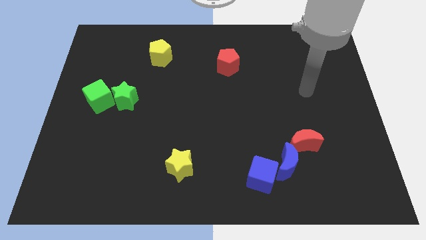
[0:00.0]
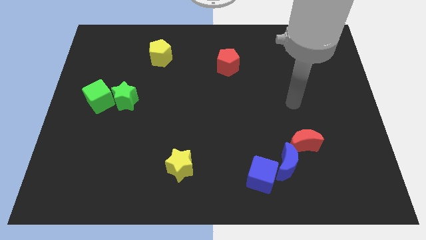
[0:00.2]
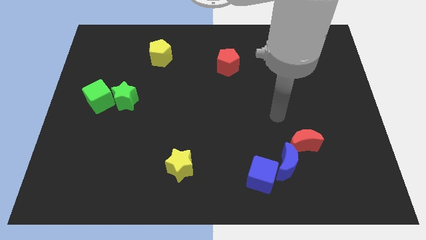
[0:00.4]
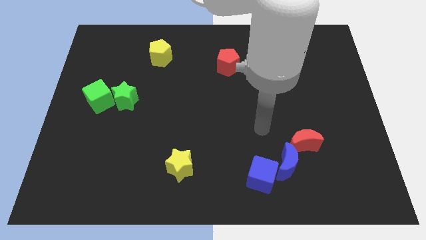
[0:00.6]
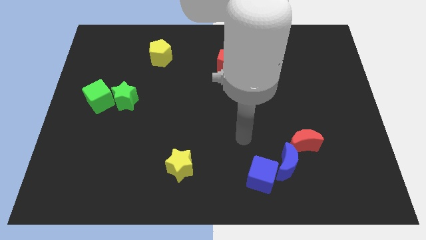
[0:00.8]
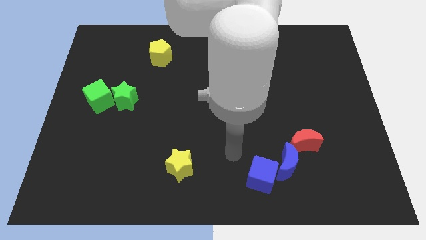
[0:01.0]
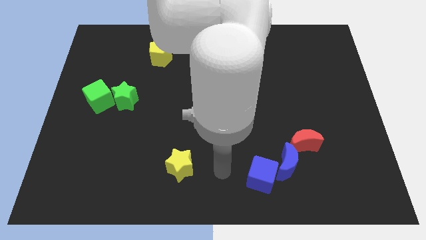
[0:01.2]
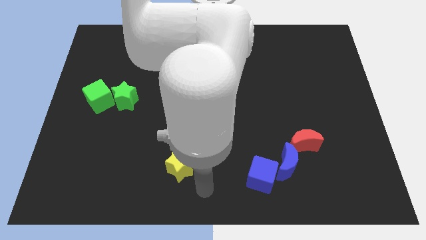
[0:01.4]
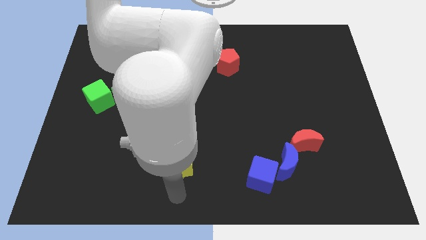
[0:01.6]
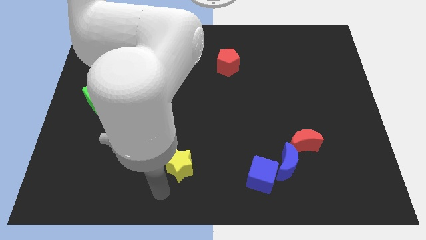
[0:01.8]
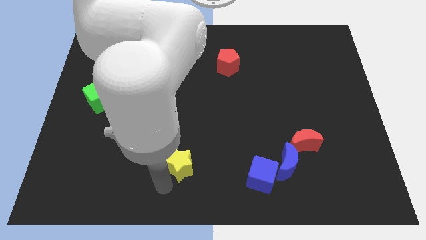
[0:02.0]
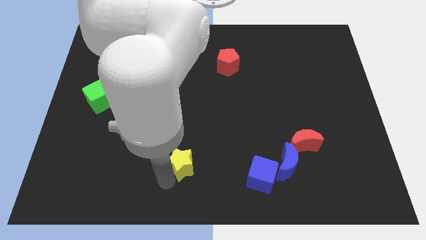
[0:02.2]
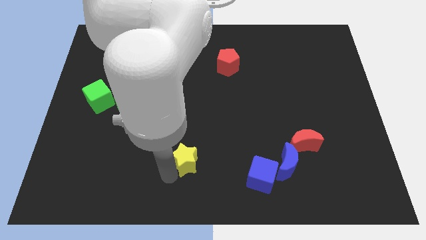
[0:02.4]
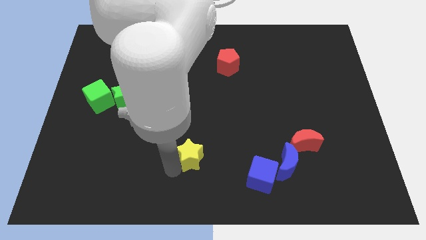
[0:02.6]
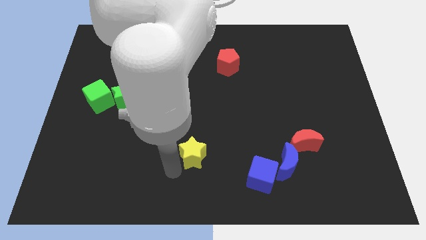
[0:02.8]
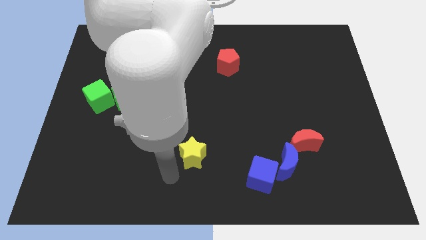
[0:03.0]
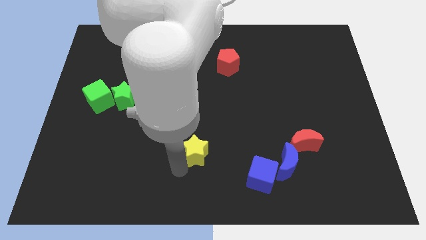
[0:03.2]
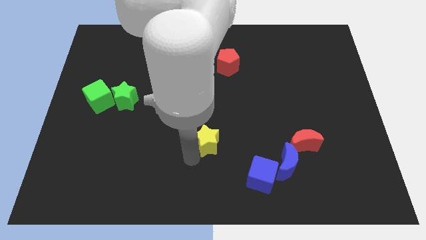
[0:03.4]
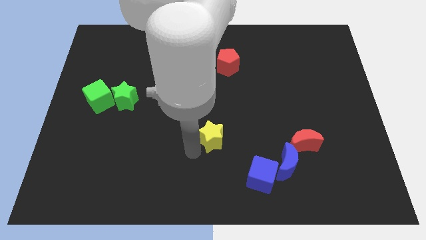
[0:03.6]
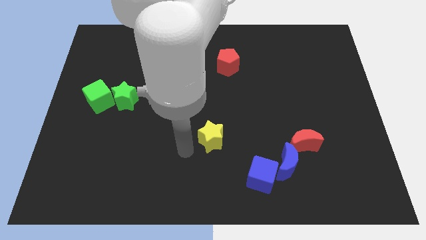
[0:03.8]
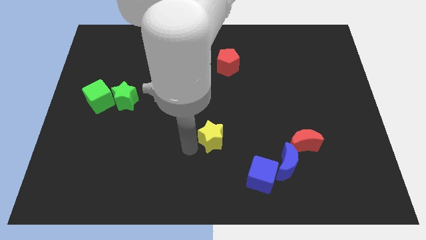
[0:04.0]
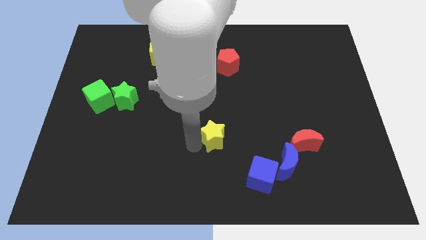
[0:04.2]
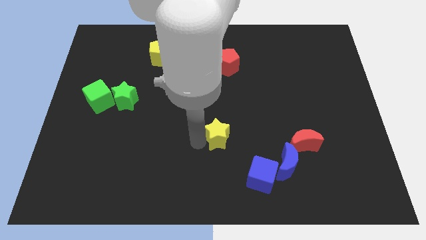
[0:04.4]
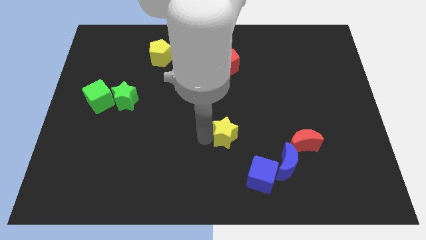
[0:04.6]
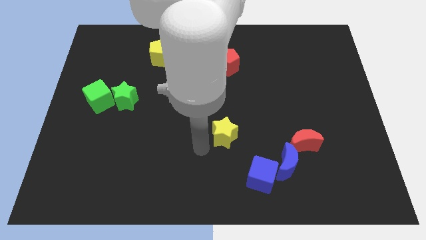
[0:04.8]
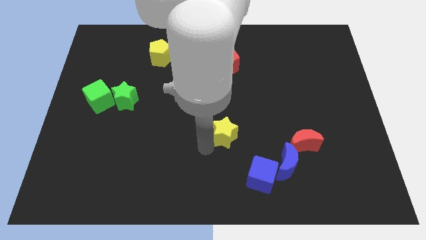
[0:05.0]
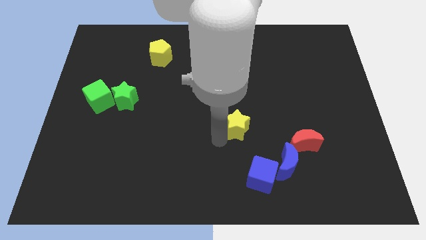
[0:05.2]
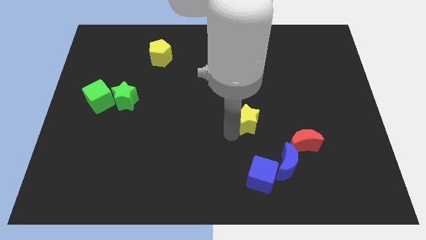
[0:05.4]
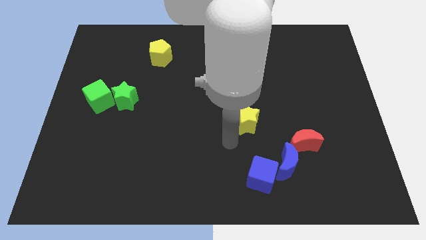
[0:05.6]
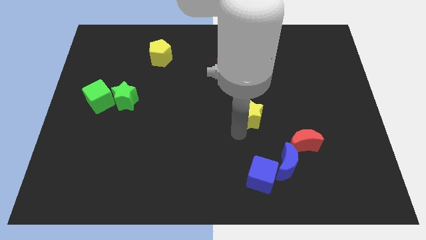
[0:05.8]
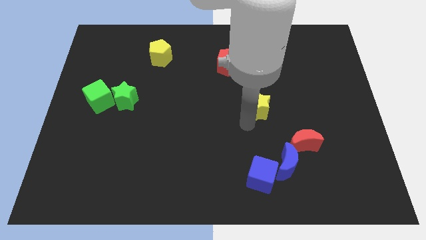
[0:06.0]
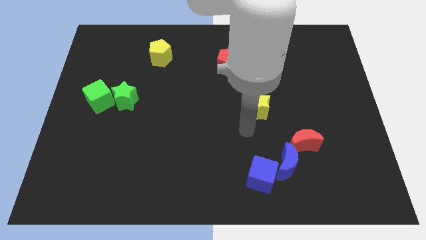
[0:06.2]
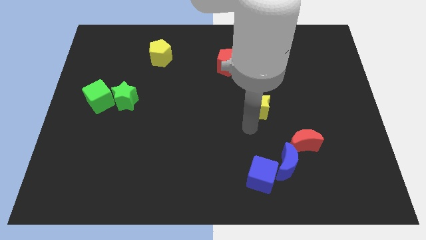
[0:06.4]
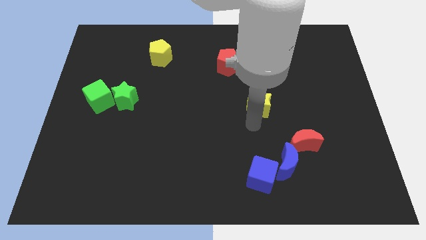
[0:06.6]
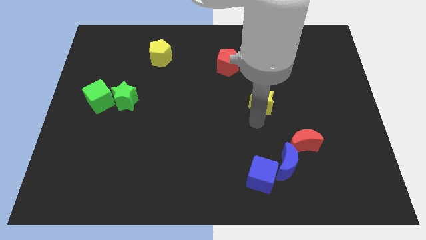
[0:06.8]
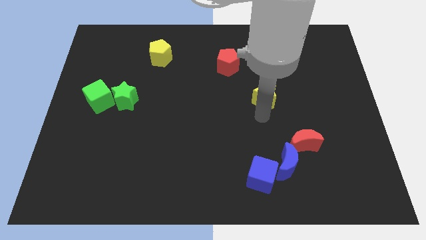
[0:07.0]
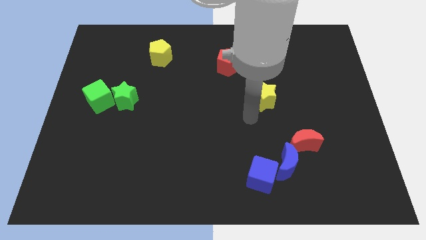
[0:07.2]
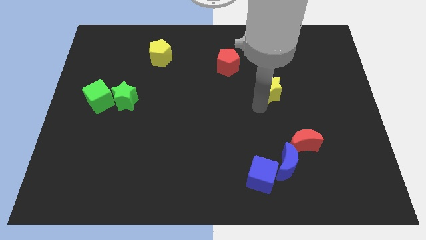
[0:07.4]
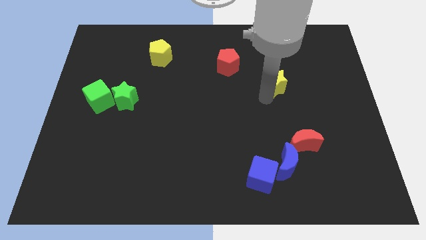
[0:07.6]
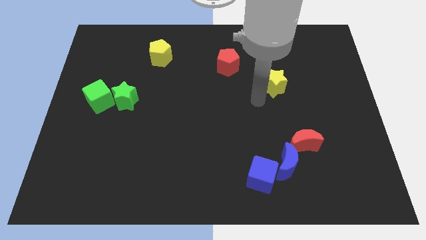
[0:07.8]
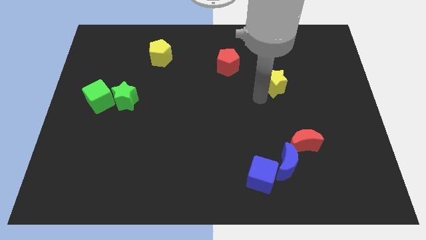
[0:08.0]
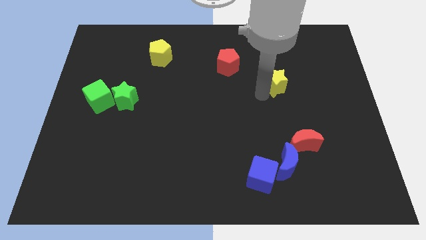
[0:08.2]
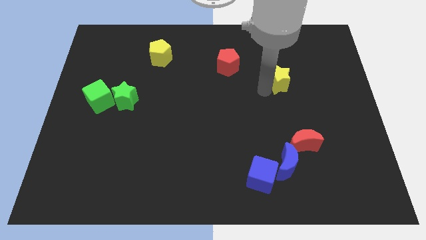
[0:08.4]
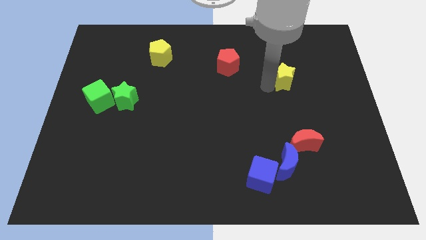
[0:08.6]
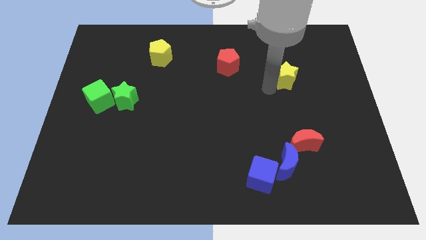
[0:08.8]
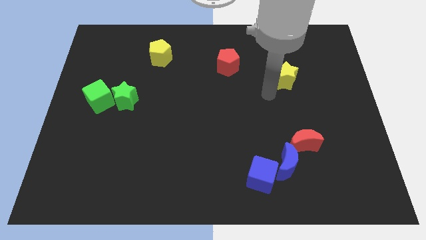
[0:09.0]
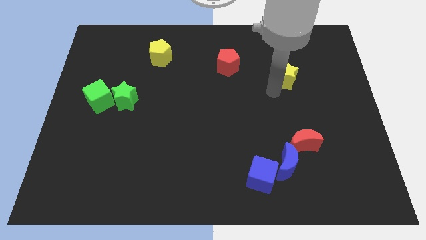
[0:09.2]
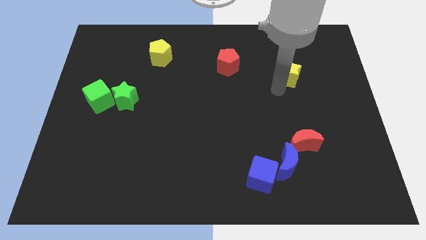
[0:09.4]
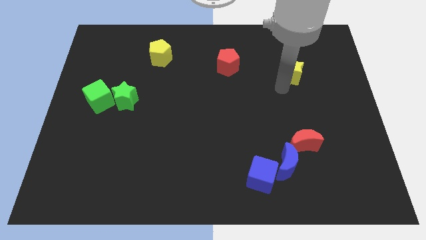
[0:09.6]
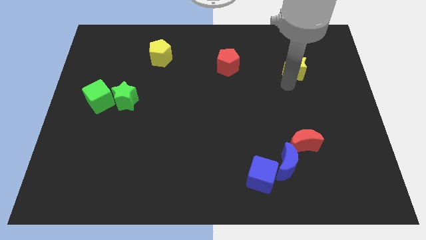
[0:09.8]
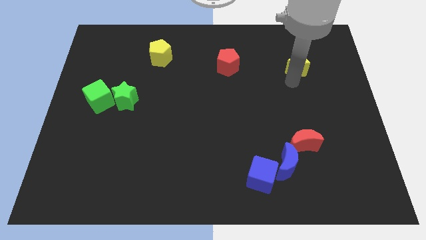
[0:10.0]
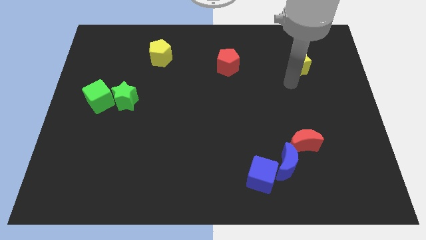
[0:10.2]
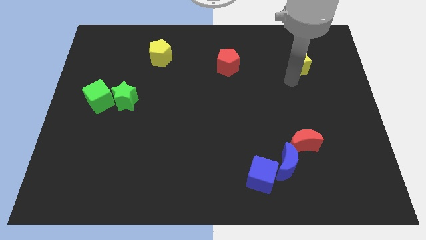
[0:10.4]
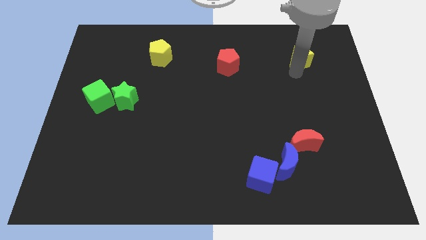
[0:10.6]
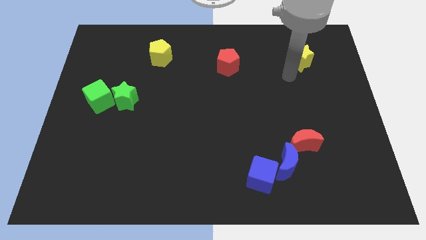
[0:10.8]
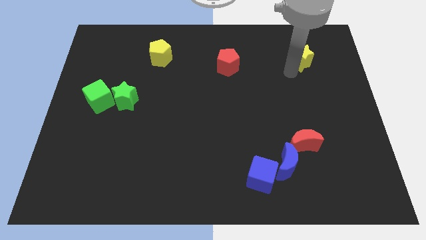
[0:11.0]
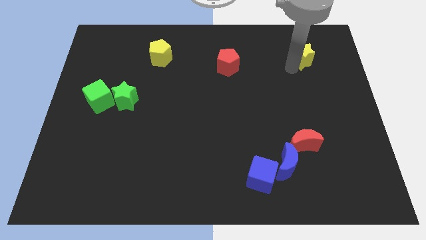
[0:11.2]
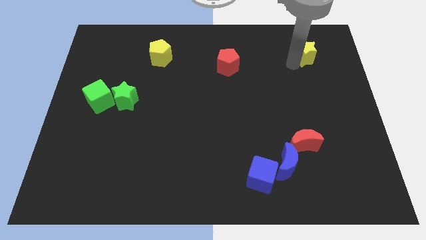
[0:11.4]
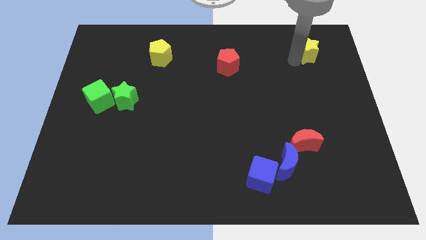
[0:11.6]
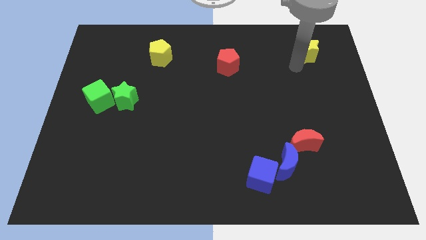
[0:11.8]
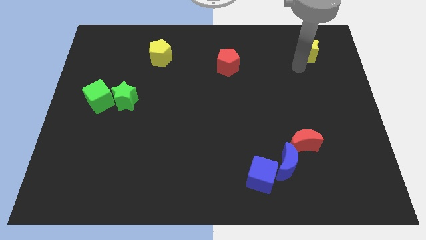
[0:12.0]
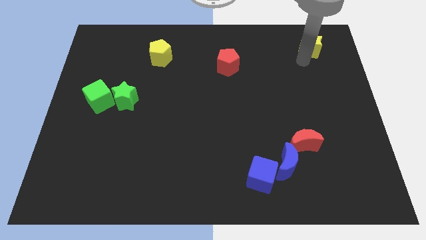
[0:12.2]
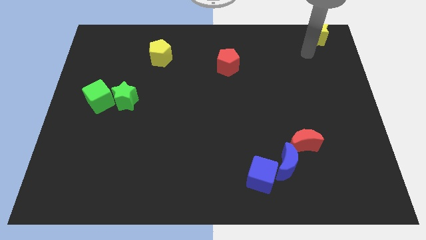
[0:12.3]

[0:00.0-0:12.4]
push the yellow star to the top right
